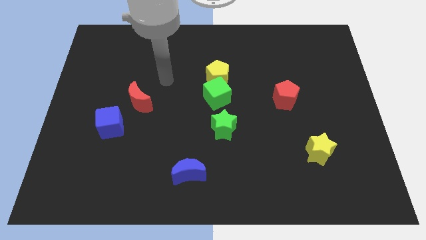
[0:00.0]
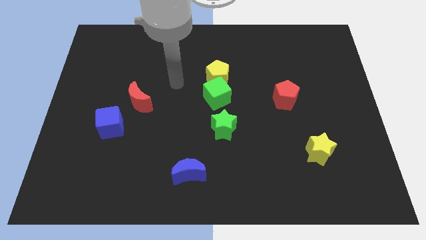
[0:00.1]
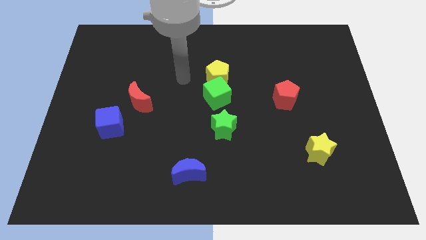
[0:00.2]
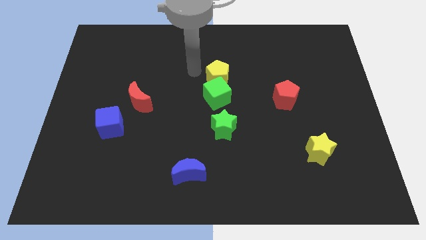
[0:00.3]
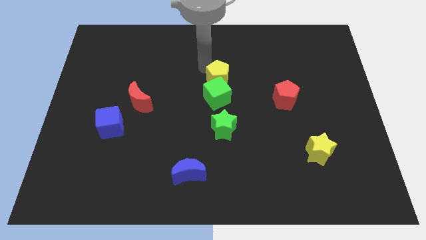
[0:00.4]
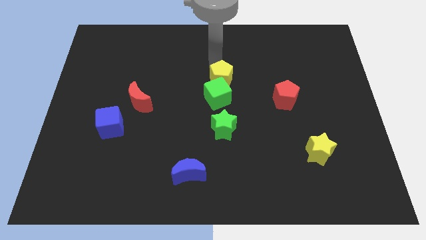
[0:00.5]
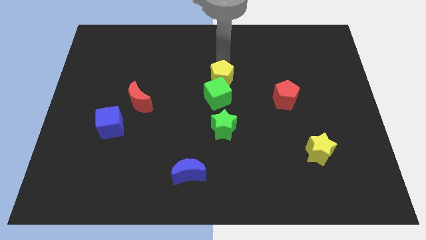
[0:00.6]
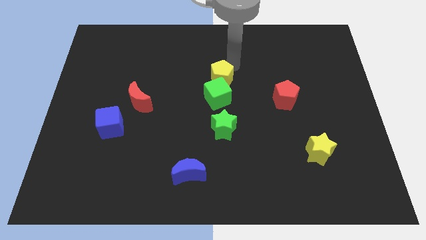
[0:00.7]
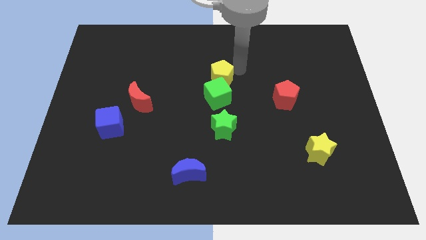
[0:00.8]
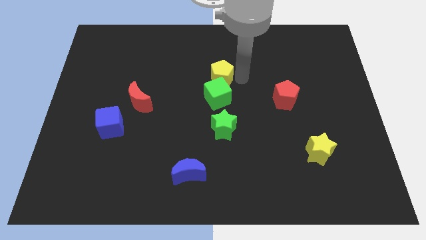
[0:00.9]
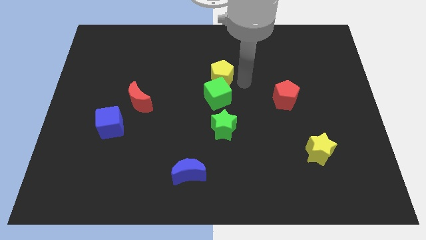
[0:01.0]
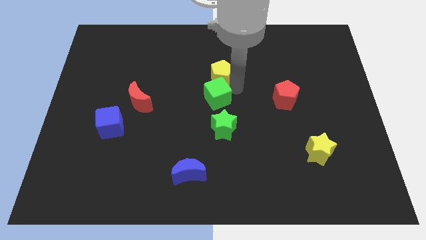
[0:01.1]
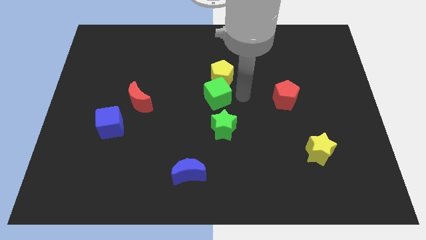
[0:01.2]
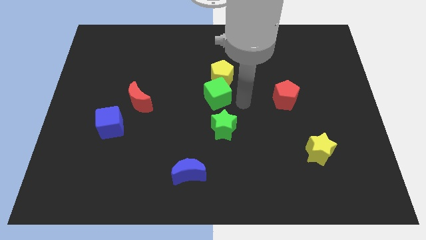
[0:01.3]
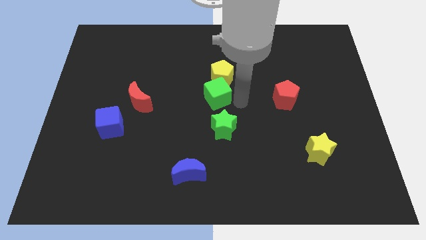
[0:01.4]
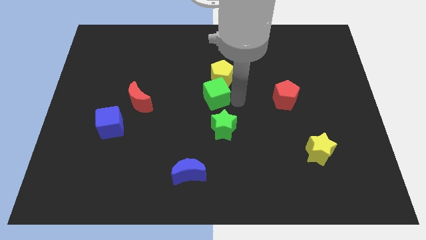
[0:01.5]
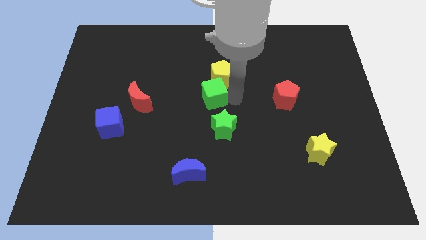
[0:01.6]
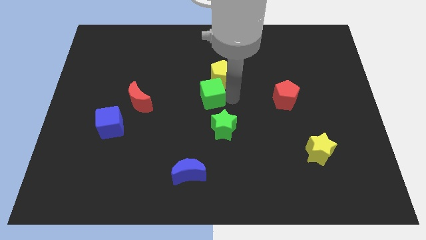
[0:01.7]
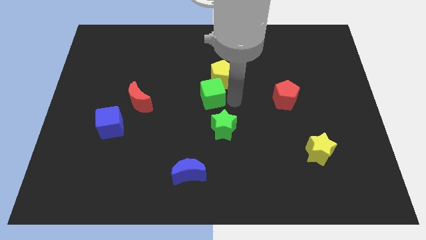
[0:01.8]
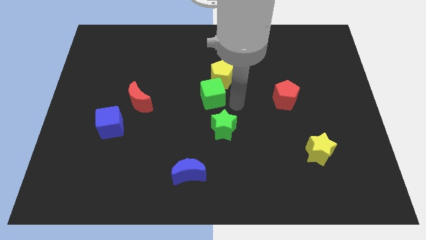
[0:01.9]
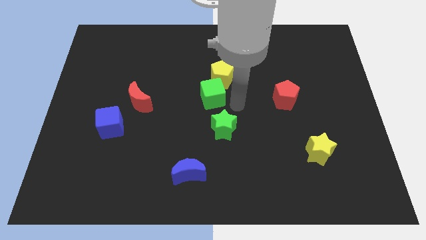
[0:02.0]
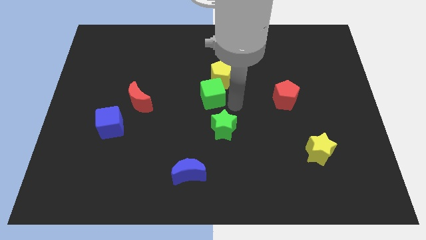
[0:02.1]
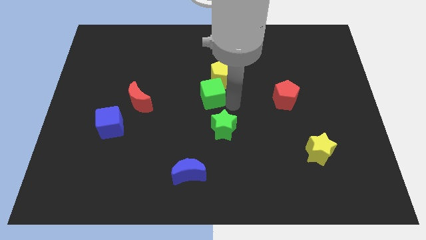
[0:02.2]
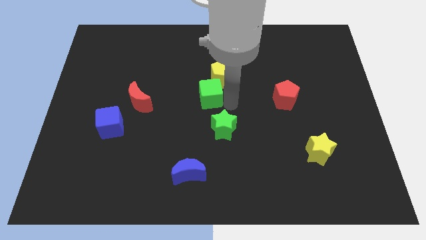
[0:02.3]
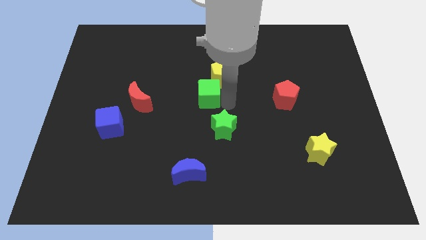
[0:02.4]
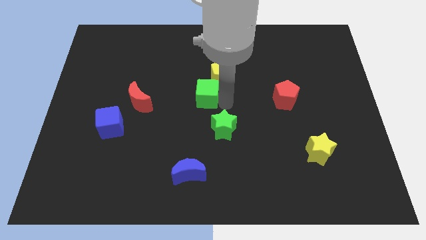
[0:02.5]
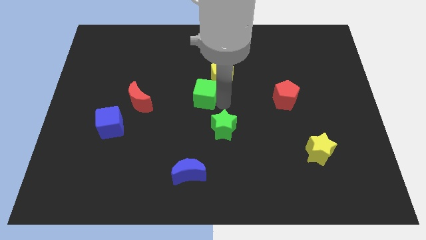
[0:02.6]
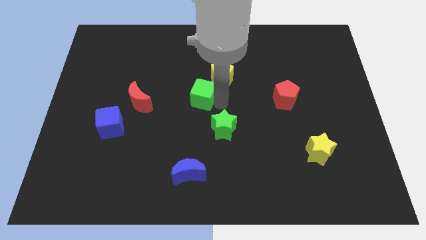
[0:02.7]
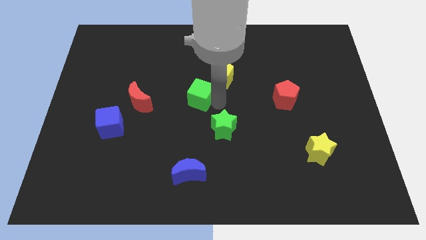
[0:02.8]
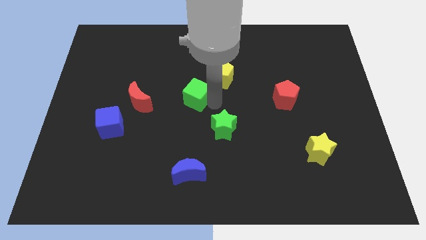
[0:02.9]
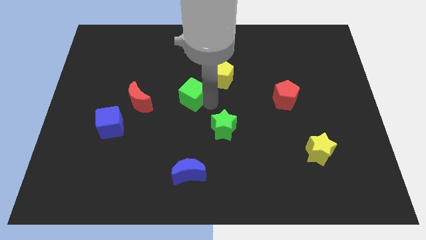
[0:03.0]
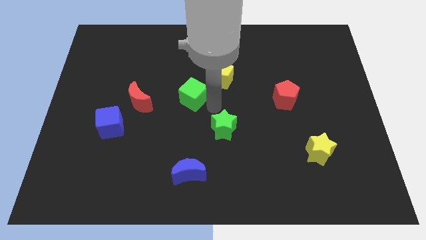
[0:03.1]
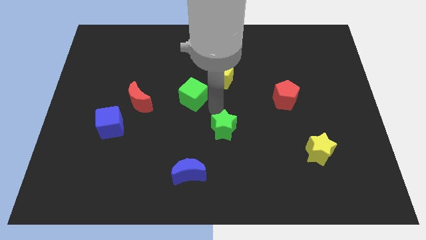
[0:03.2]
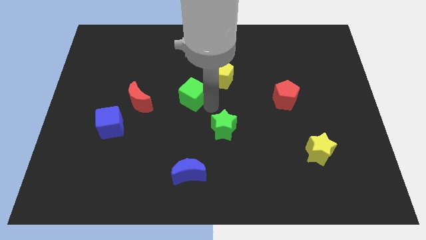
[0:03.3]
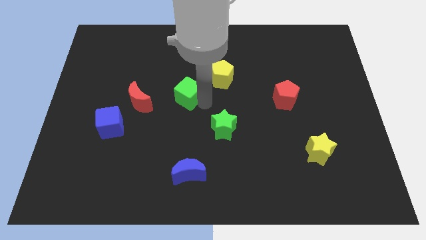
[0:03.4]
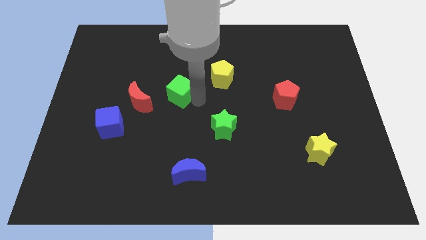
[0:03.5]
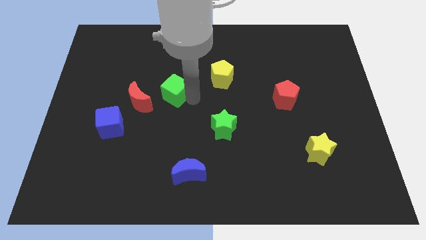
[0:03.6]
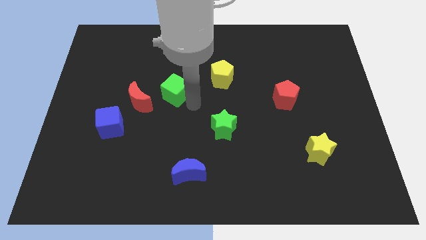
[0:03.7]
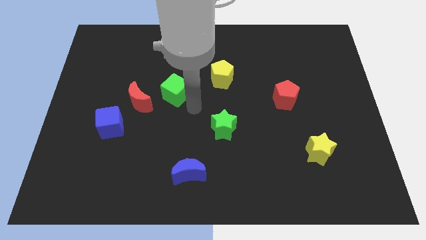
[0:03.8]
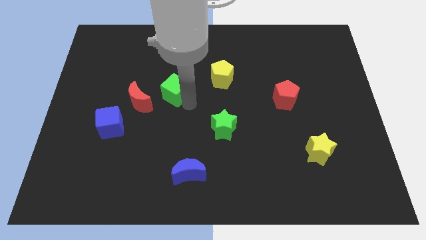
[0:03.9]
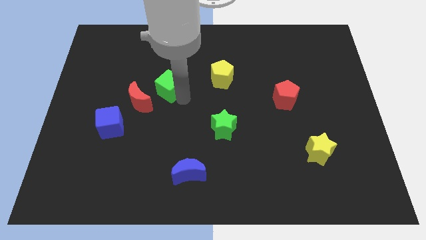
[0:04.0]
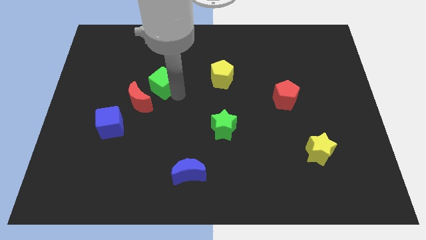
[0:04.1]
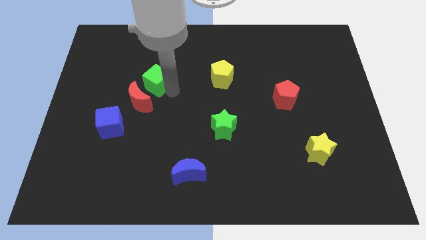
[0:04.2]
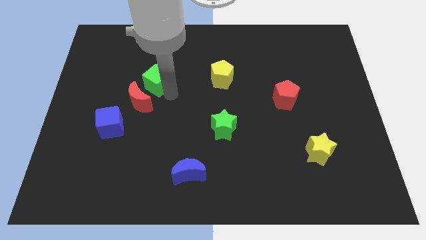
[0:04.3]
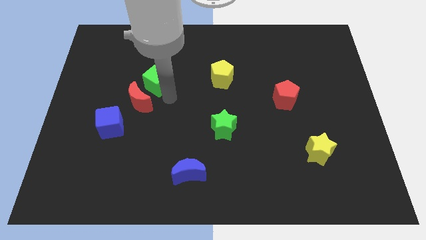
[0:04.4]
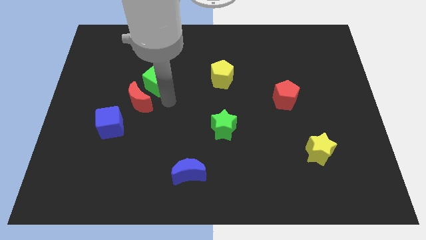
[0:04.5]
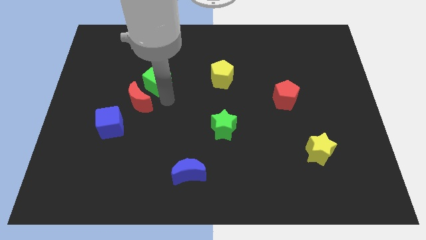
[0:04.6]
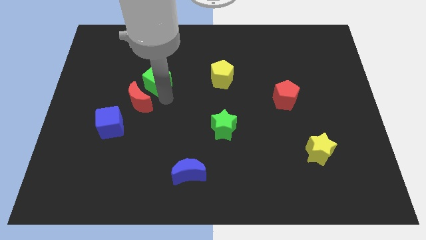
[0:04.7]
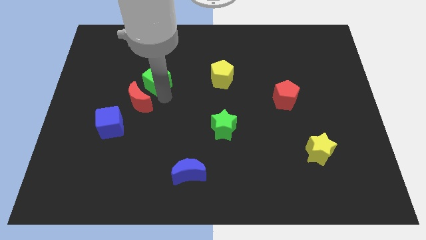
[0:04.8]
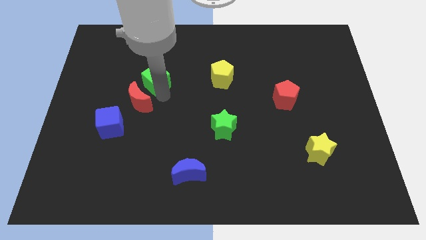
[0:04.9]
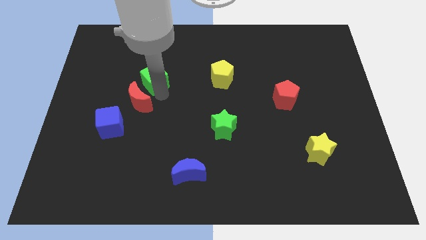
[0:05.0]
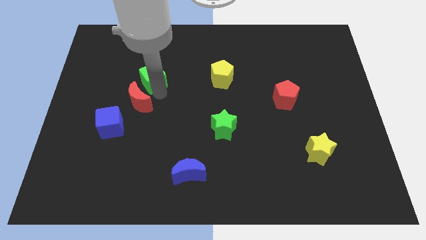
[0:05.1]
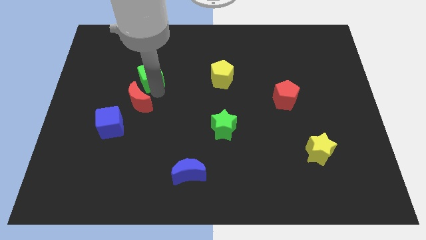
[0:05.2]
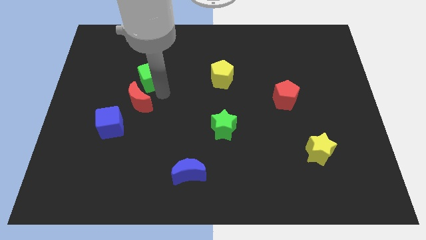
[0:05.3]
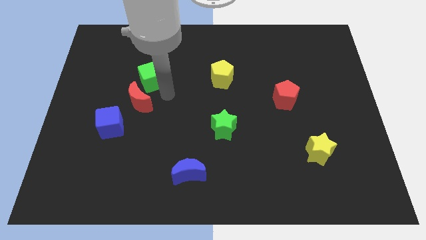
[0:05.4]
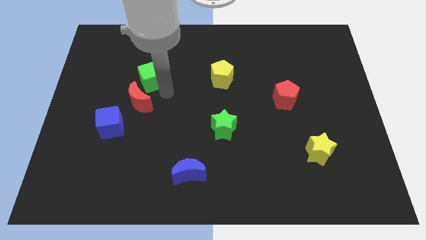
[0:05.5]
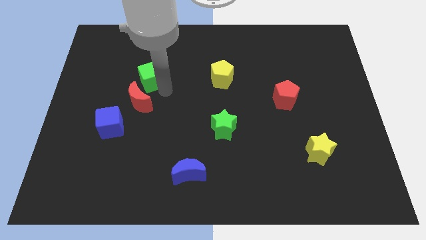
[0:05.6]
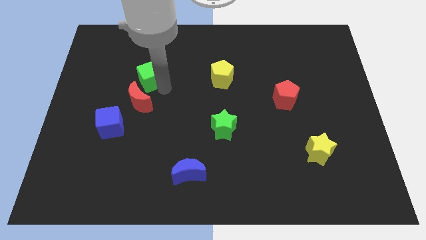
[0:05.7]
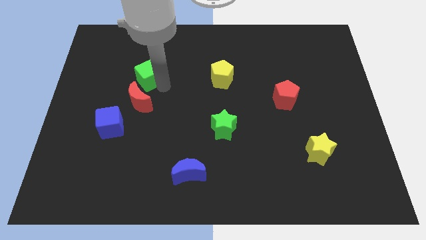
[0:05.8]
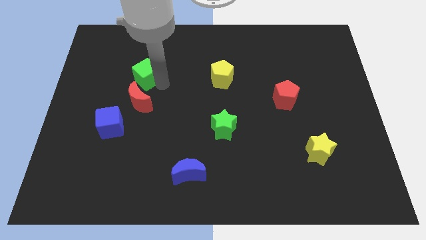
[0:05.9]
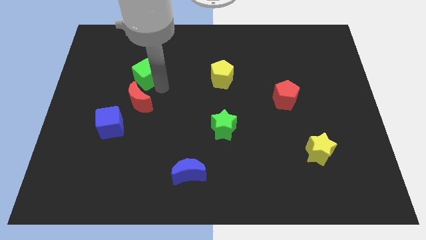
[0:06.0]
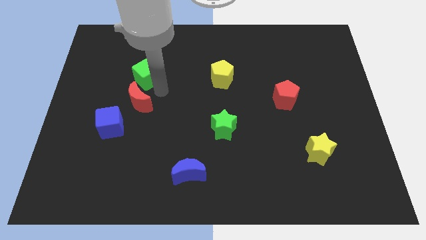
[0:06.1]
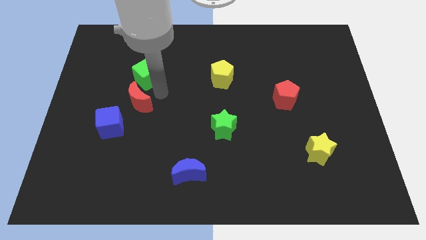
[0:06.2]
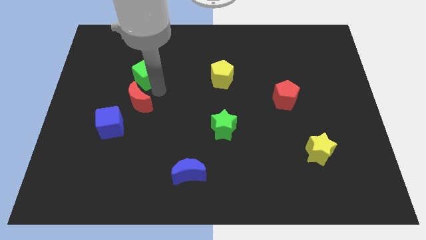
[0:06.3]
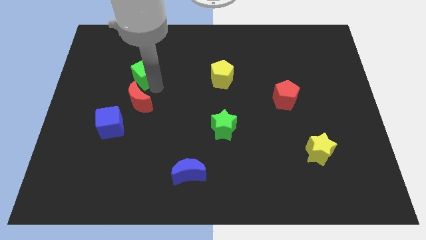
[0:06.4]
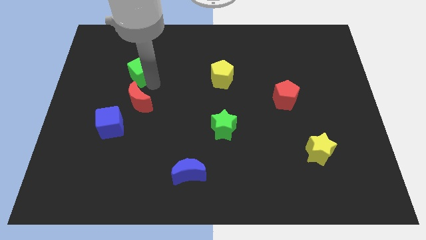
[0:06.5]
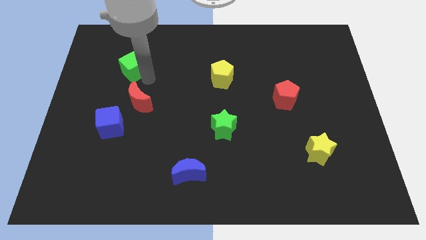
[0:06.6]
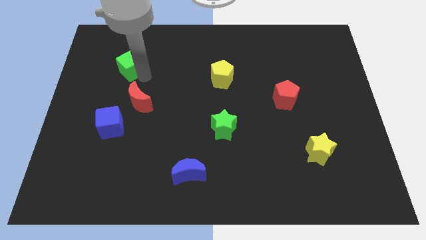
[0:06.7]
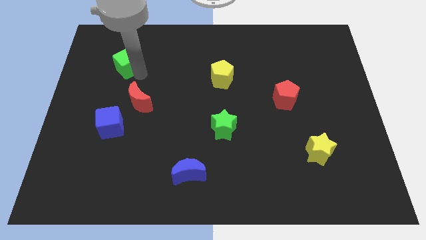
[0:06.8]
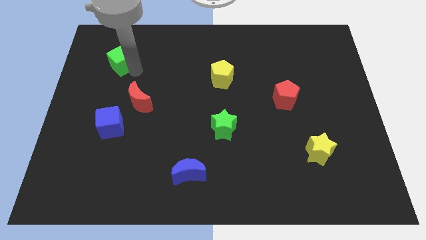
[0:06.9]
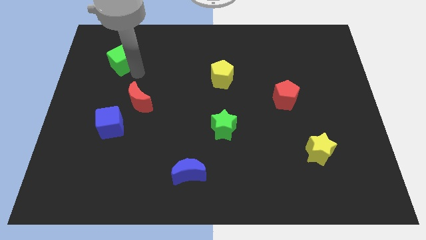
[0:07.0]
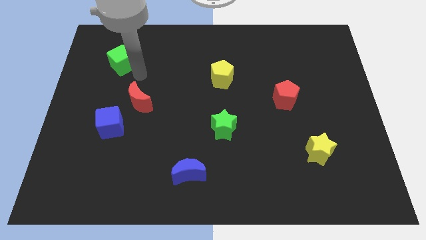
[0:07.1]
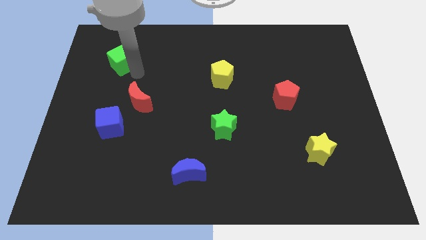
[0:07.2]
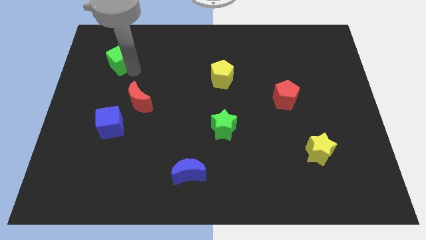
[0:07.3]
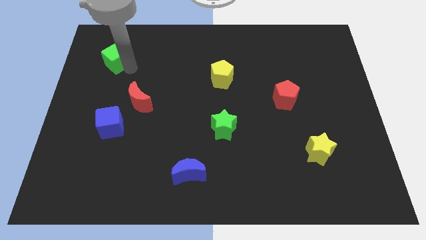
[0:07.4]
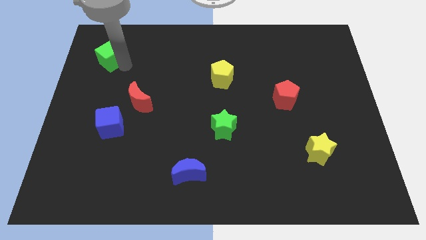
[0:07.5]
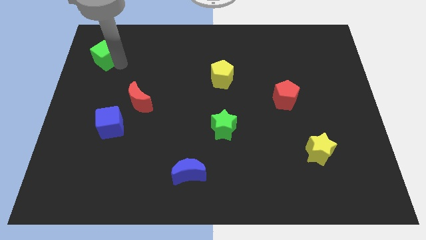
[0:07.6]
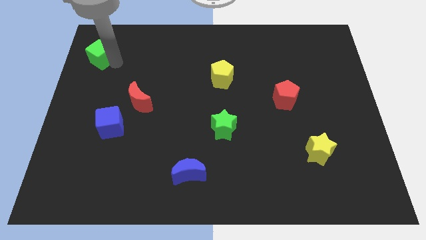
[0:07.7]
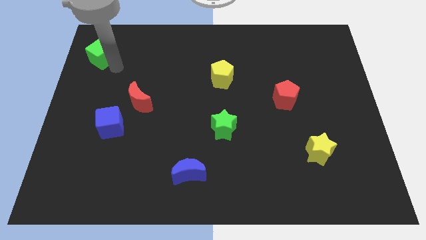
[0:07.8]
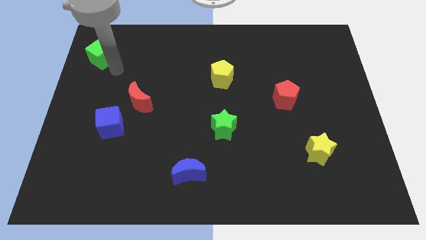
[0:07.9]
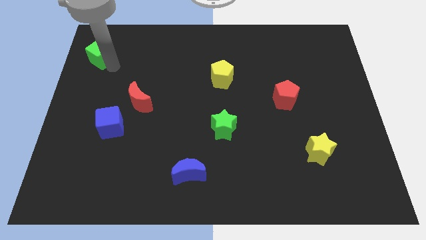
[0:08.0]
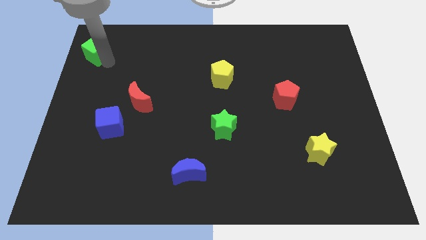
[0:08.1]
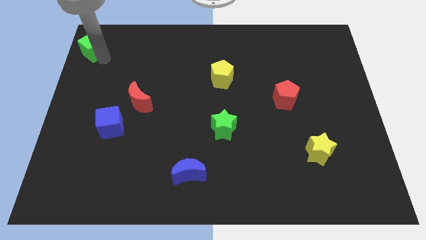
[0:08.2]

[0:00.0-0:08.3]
push the green cube to the upper left corner
